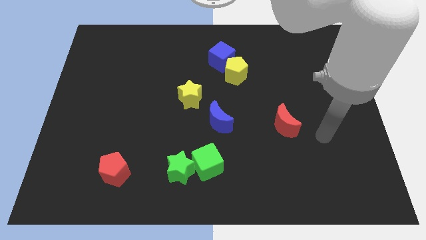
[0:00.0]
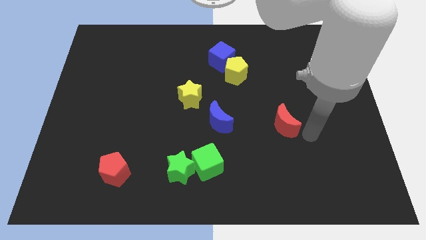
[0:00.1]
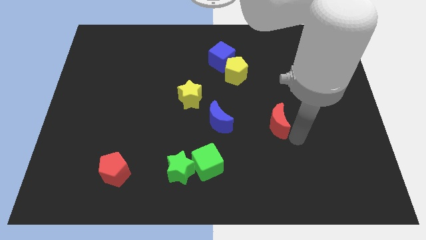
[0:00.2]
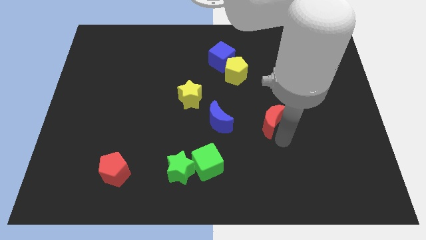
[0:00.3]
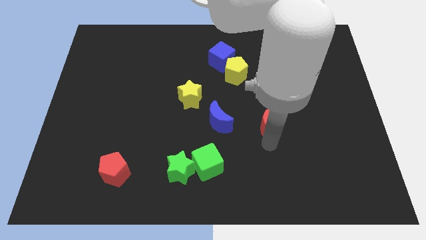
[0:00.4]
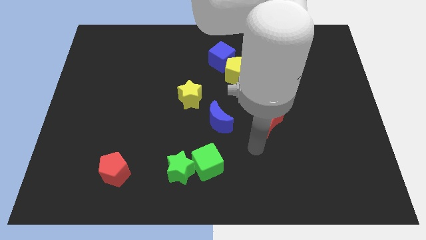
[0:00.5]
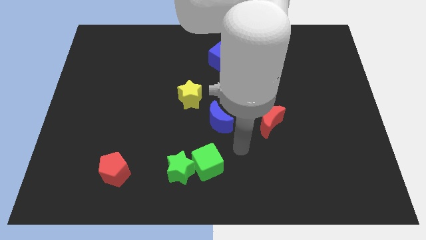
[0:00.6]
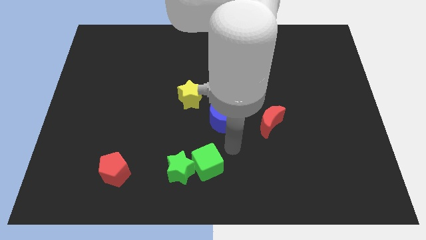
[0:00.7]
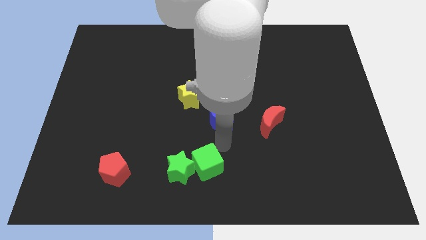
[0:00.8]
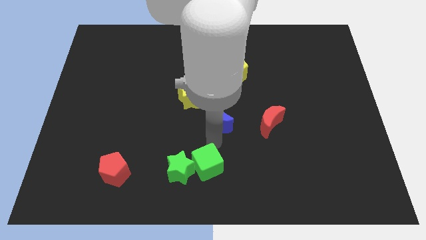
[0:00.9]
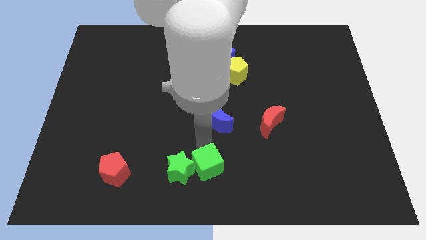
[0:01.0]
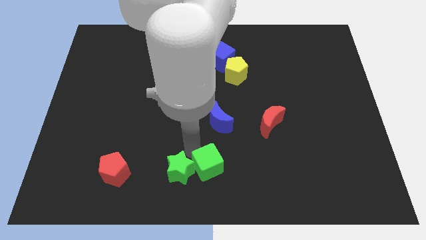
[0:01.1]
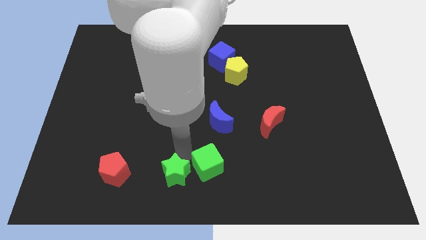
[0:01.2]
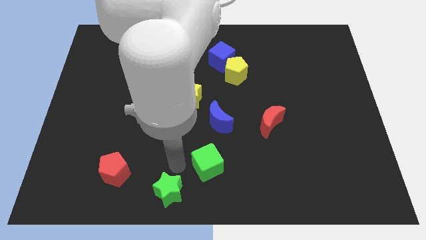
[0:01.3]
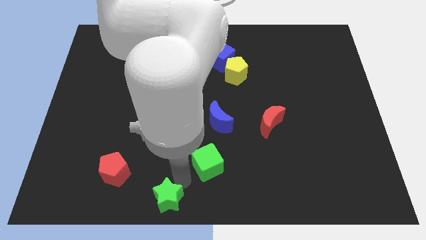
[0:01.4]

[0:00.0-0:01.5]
move the green cube away from the green star

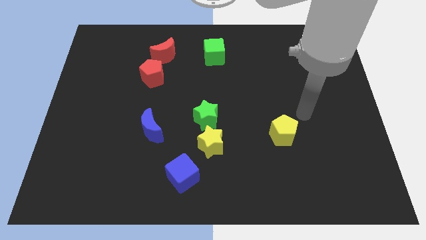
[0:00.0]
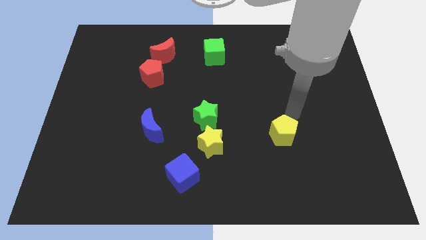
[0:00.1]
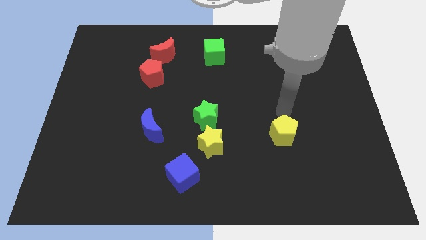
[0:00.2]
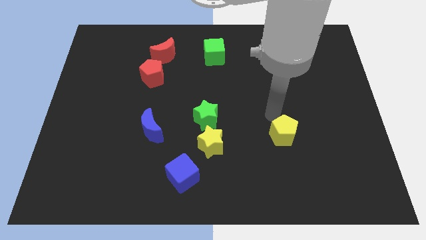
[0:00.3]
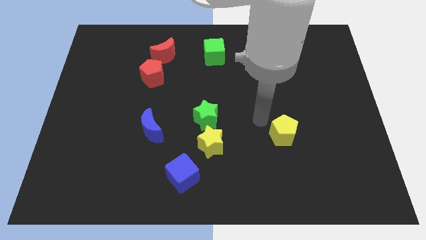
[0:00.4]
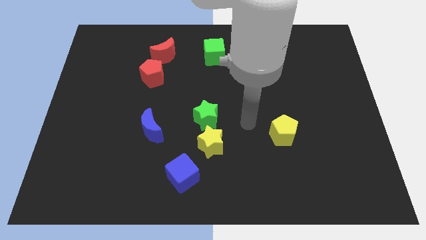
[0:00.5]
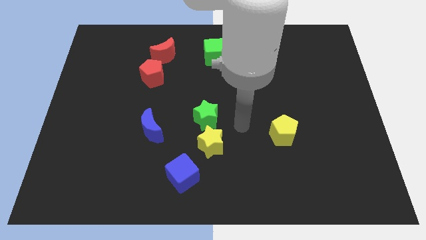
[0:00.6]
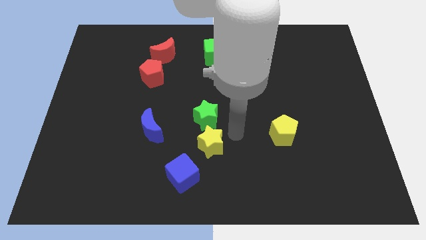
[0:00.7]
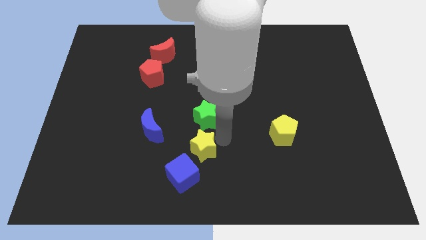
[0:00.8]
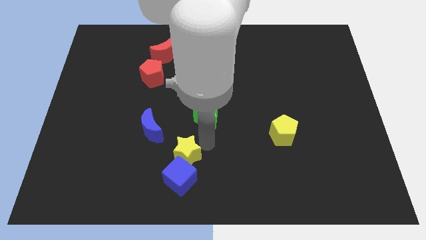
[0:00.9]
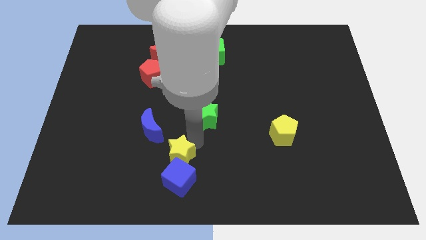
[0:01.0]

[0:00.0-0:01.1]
separate the green star from the yellow star

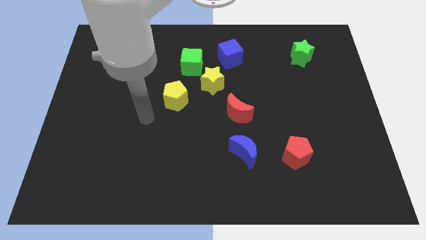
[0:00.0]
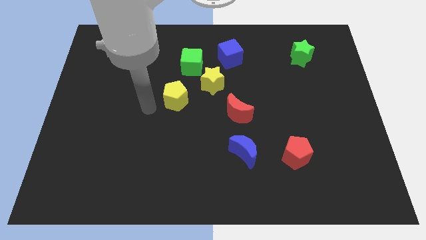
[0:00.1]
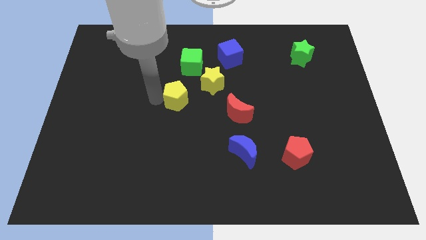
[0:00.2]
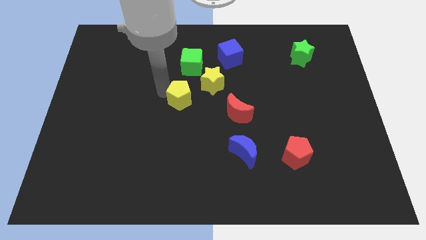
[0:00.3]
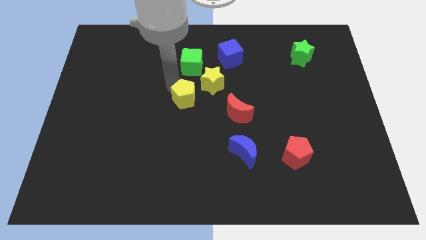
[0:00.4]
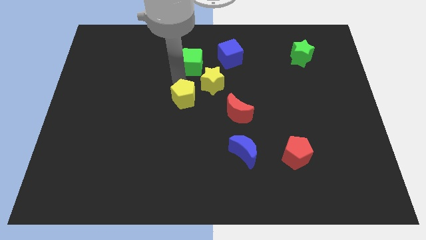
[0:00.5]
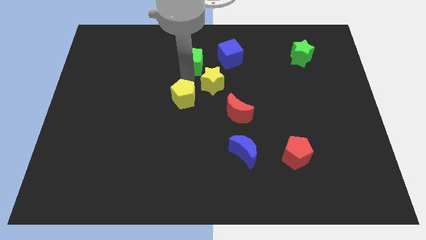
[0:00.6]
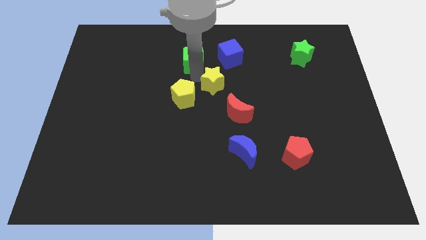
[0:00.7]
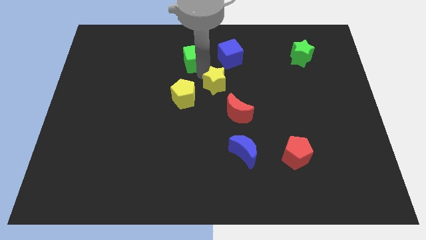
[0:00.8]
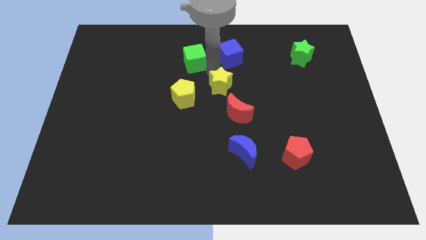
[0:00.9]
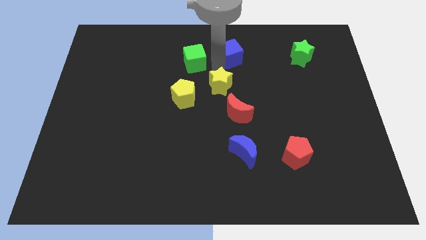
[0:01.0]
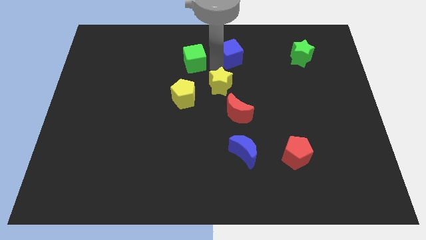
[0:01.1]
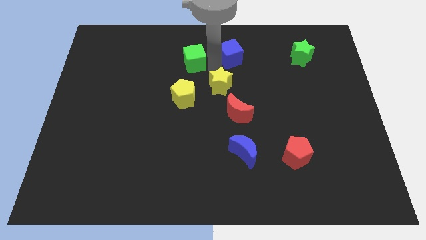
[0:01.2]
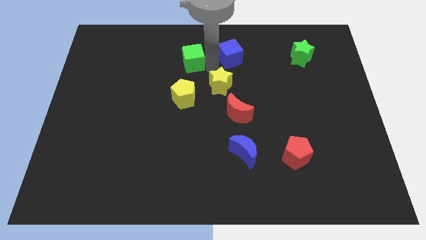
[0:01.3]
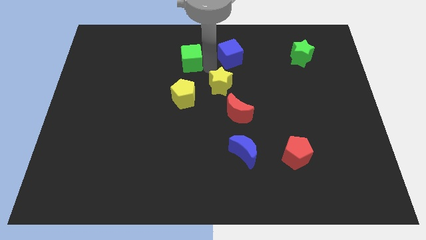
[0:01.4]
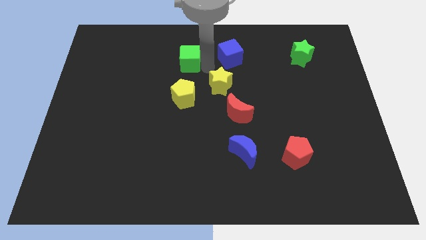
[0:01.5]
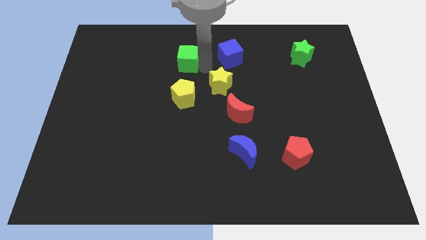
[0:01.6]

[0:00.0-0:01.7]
separate the green cube from the yellow star and blue cube

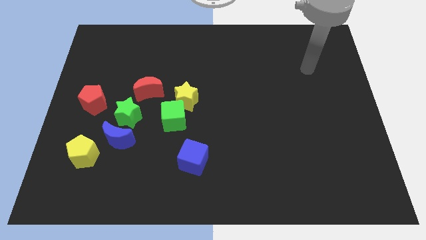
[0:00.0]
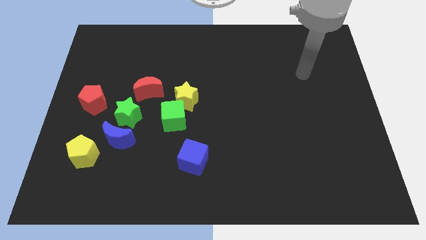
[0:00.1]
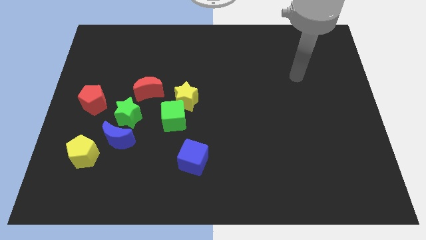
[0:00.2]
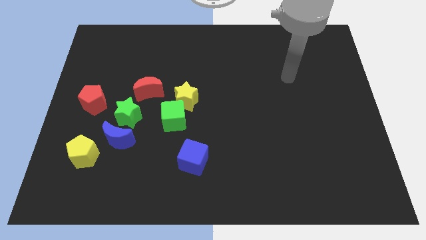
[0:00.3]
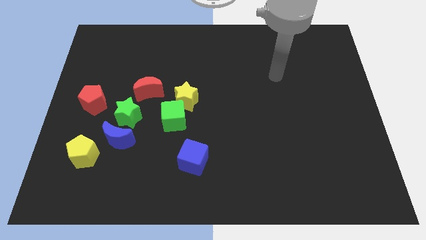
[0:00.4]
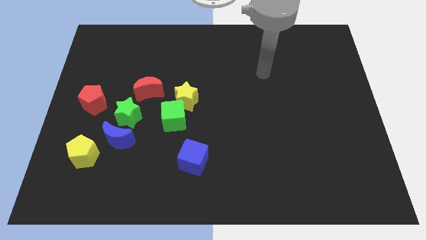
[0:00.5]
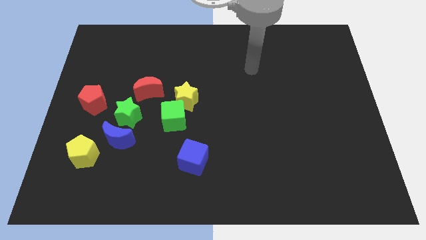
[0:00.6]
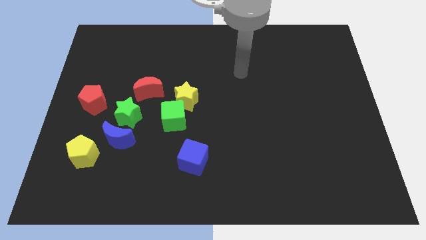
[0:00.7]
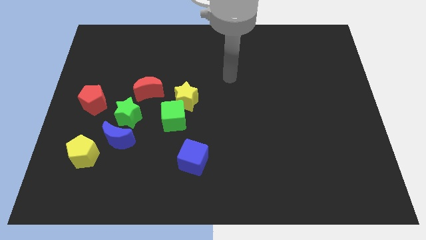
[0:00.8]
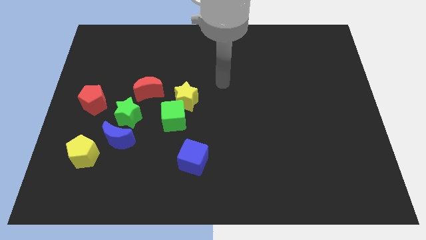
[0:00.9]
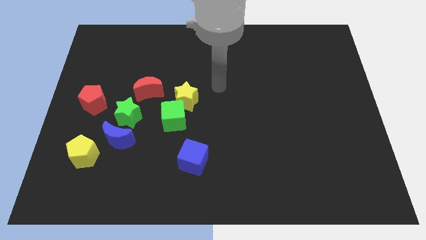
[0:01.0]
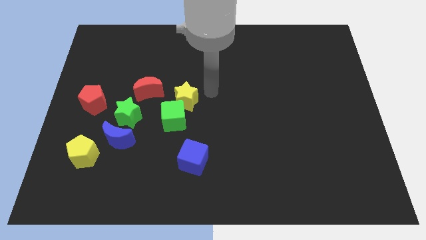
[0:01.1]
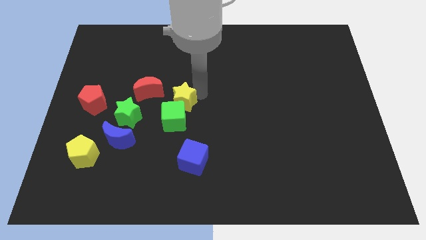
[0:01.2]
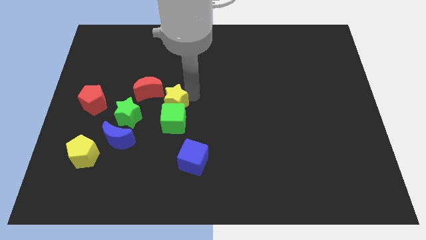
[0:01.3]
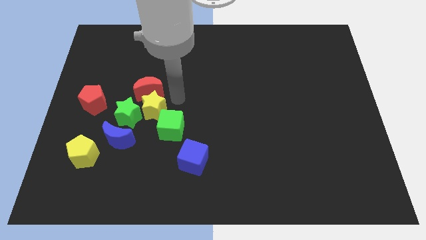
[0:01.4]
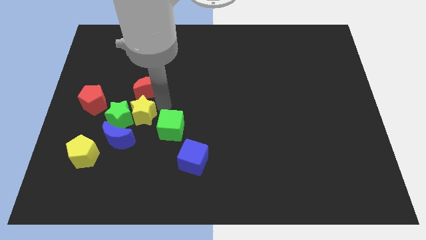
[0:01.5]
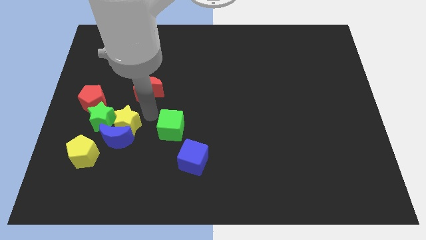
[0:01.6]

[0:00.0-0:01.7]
pull the green cube apart from the yellow star

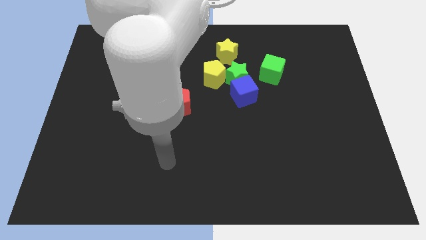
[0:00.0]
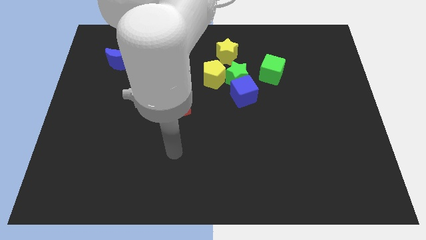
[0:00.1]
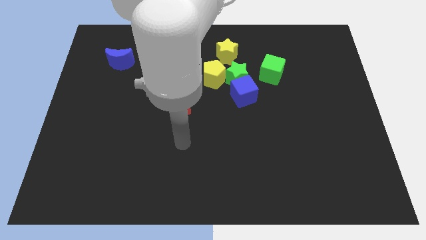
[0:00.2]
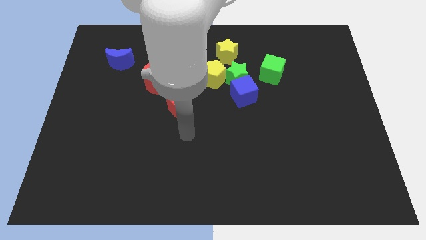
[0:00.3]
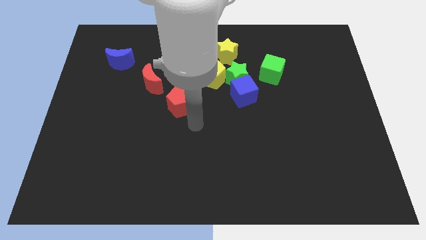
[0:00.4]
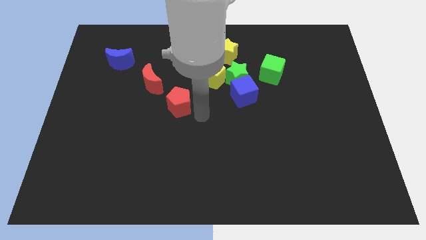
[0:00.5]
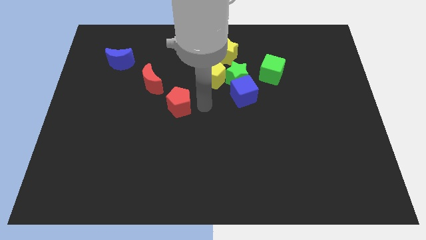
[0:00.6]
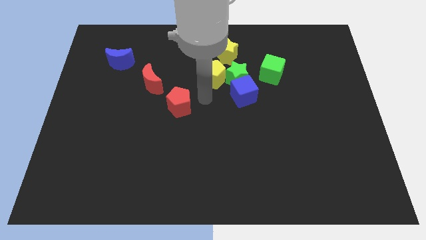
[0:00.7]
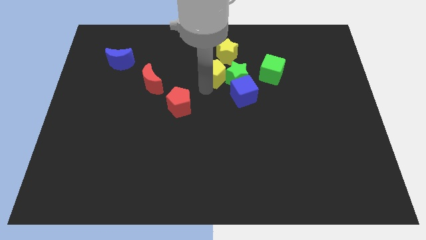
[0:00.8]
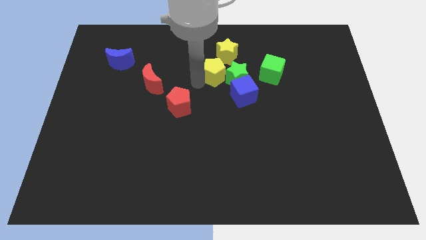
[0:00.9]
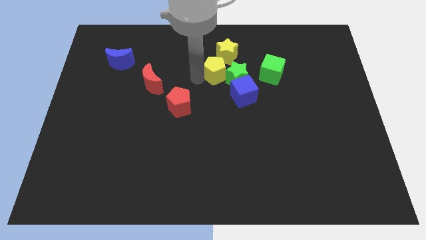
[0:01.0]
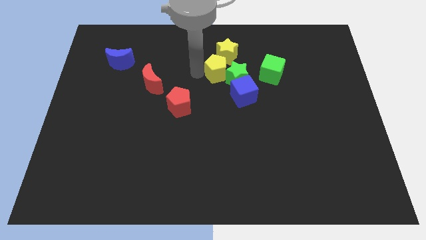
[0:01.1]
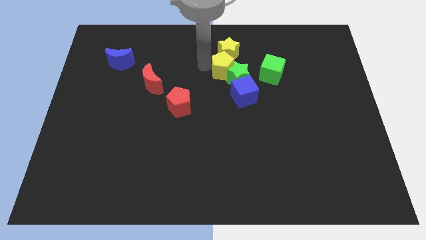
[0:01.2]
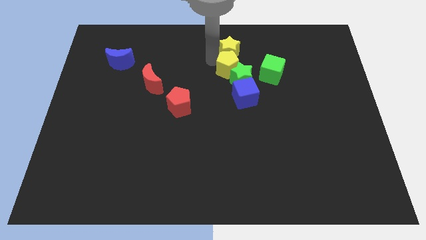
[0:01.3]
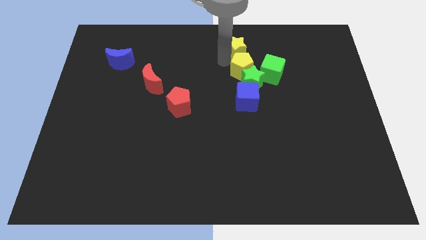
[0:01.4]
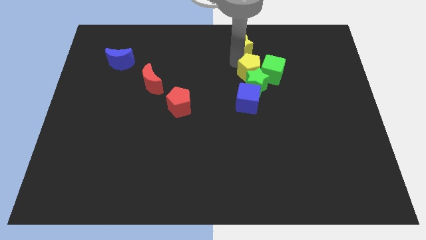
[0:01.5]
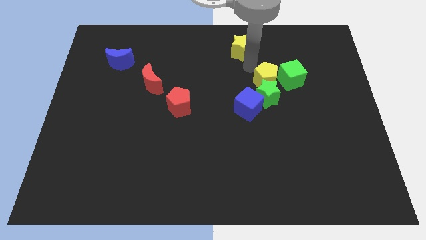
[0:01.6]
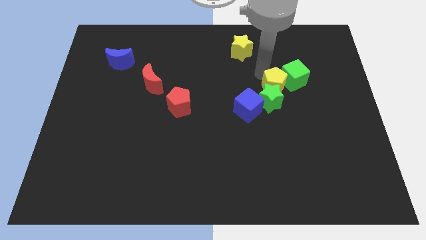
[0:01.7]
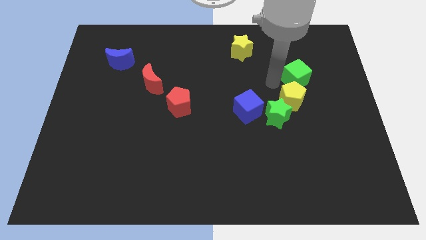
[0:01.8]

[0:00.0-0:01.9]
pull the green star apart from the group of blocks

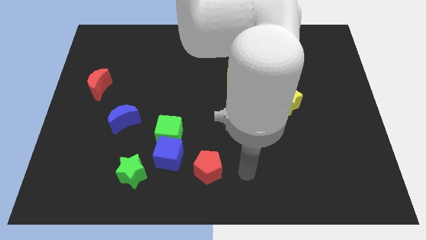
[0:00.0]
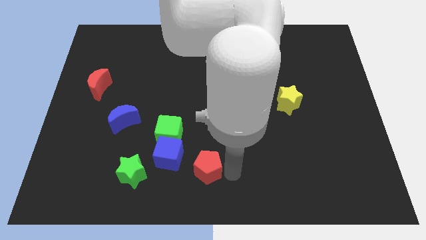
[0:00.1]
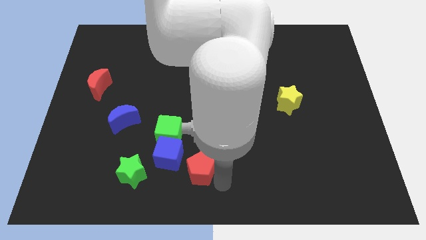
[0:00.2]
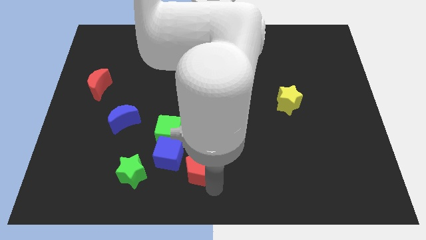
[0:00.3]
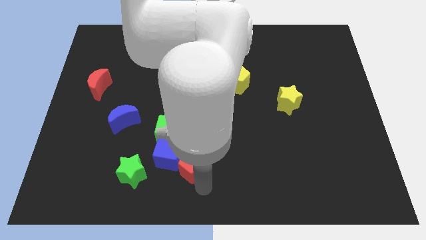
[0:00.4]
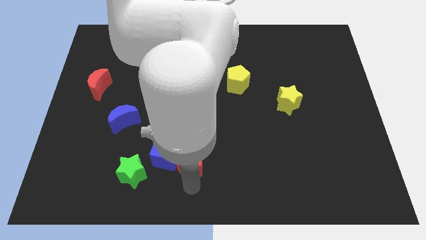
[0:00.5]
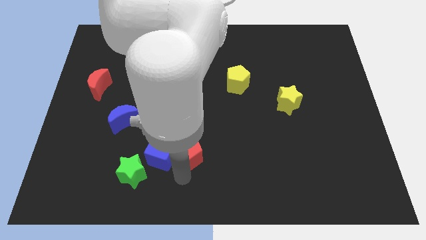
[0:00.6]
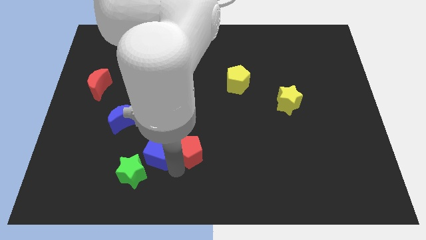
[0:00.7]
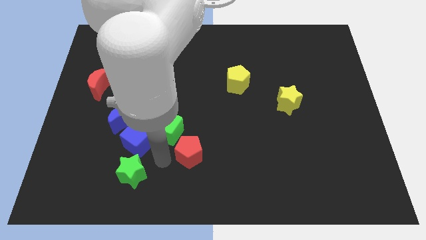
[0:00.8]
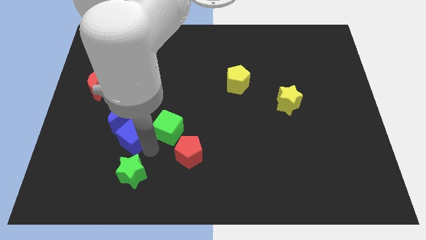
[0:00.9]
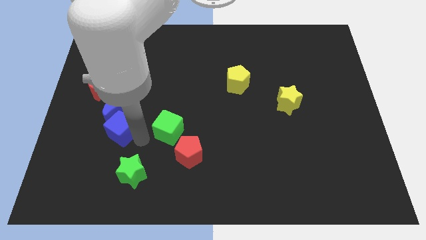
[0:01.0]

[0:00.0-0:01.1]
pull the green cube apart from the blue cube

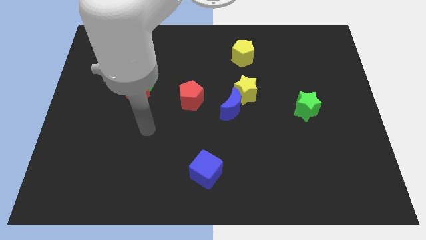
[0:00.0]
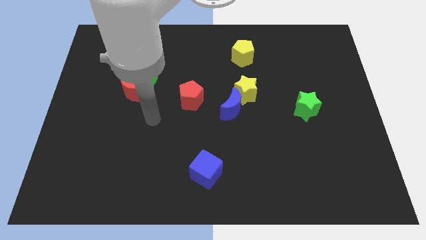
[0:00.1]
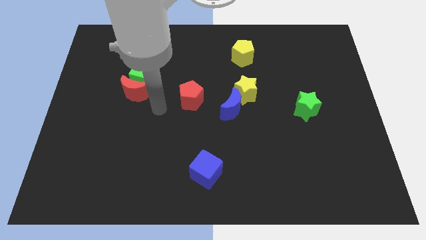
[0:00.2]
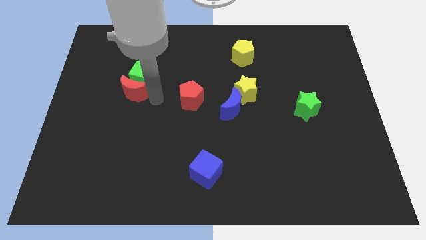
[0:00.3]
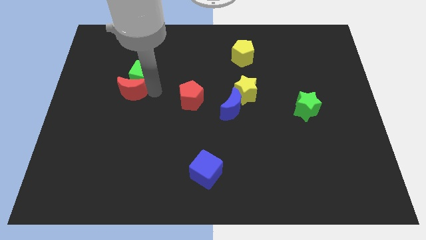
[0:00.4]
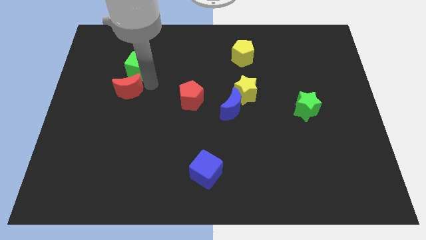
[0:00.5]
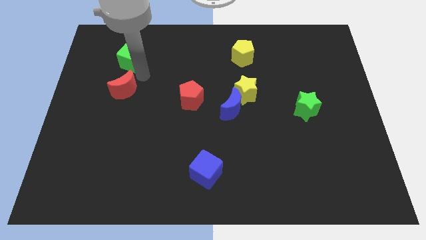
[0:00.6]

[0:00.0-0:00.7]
move the red moon away from the green cube
